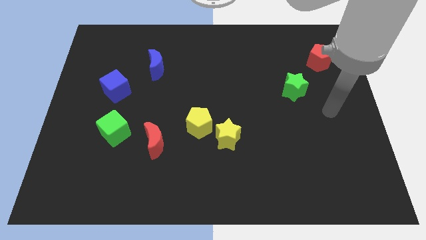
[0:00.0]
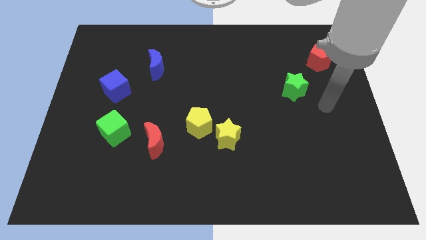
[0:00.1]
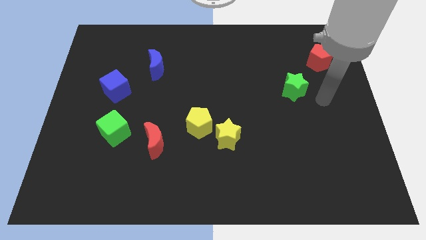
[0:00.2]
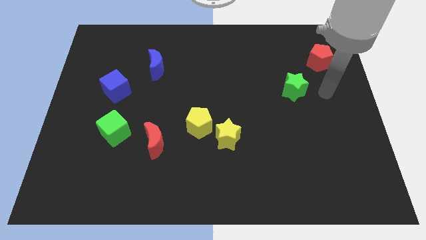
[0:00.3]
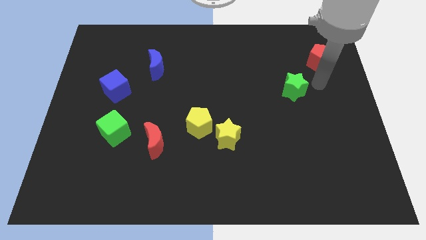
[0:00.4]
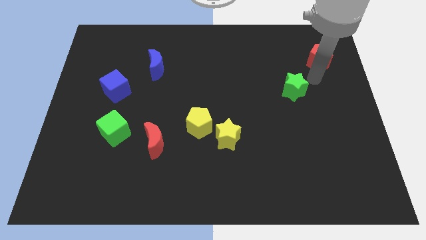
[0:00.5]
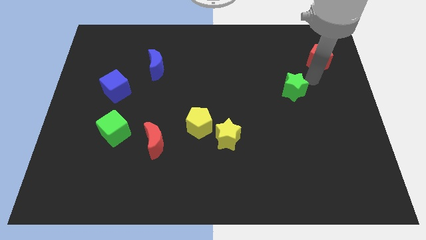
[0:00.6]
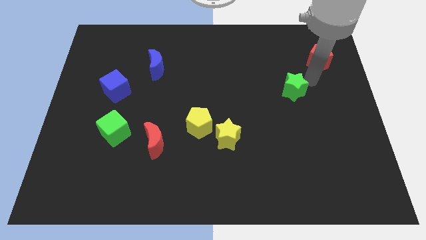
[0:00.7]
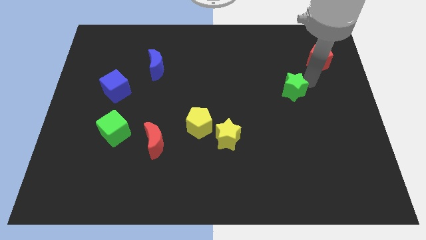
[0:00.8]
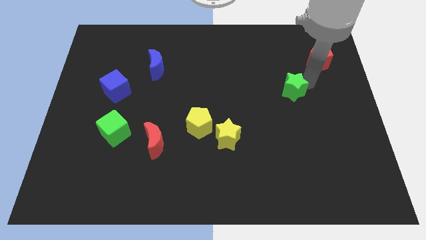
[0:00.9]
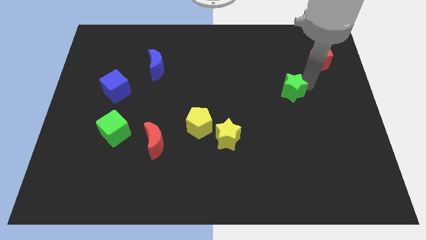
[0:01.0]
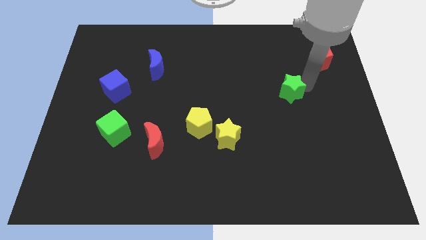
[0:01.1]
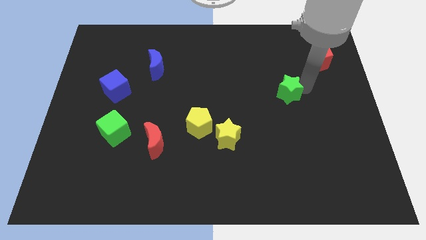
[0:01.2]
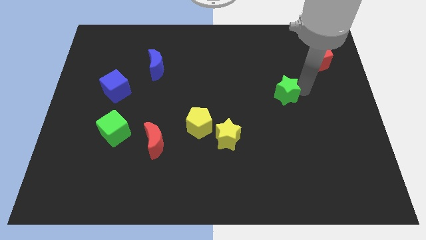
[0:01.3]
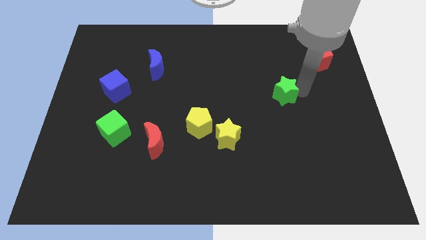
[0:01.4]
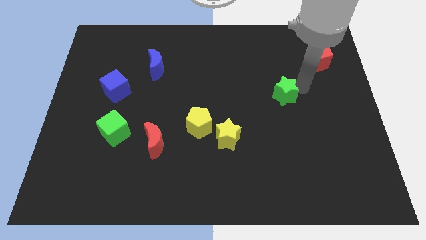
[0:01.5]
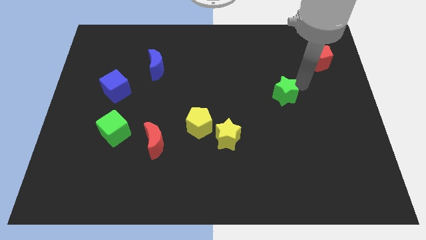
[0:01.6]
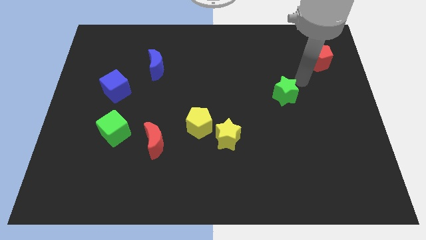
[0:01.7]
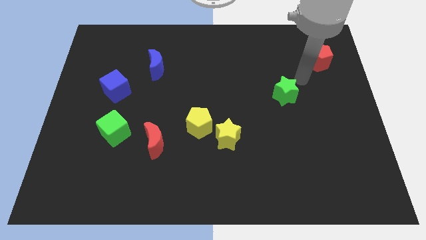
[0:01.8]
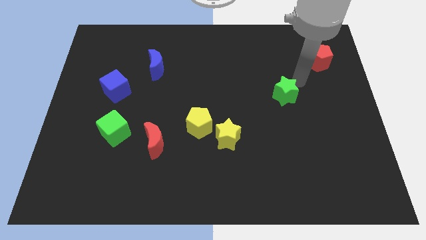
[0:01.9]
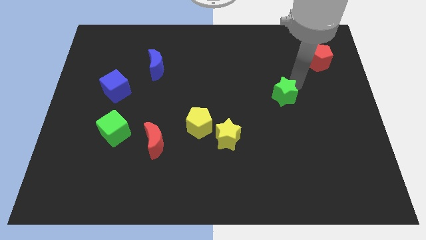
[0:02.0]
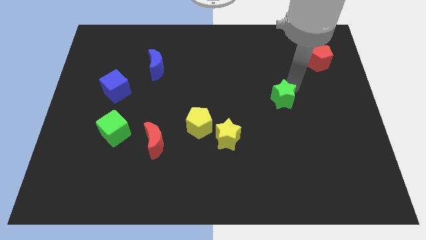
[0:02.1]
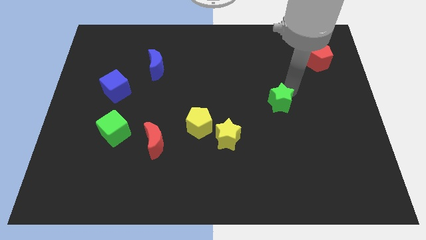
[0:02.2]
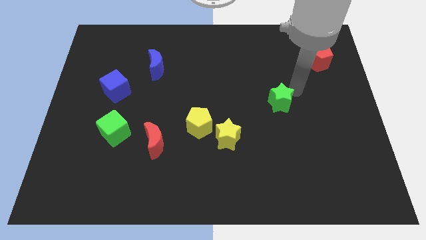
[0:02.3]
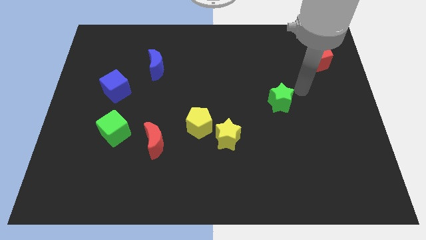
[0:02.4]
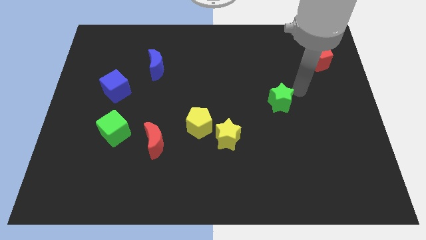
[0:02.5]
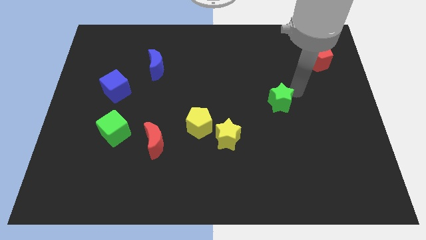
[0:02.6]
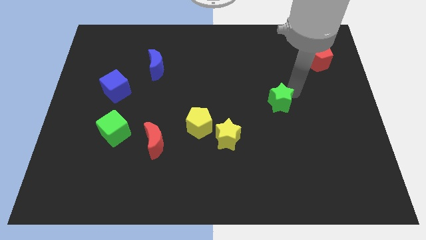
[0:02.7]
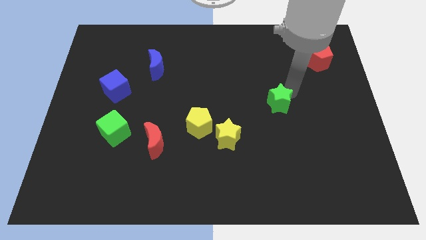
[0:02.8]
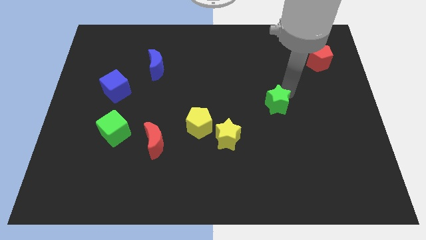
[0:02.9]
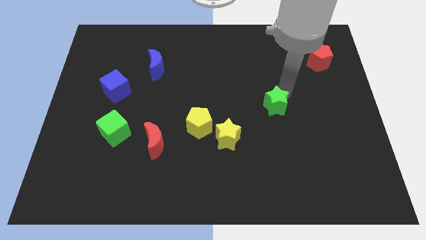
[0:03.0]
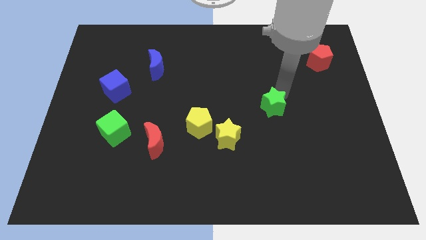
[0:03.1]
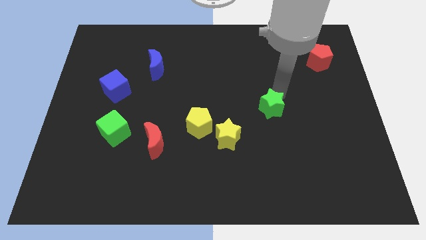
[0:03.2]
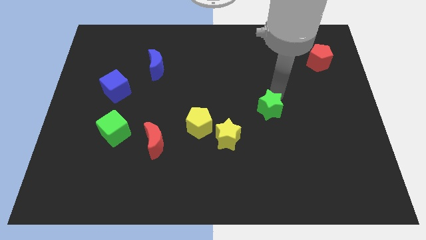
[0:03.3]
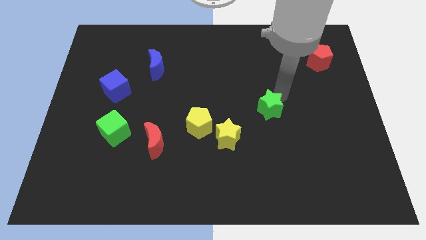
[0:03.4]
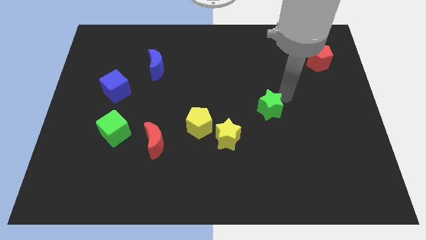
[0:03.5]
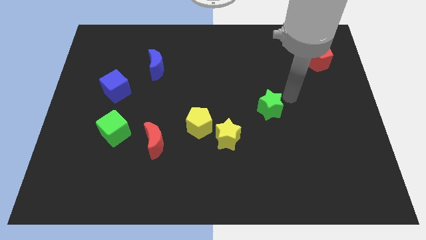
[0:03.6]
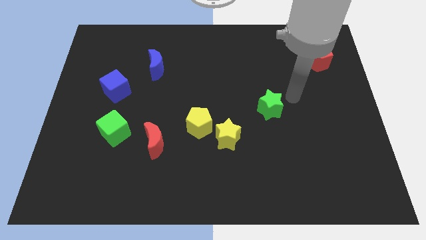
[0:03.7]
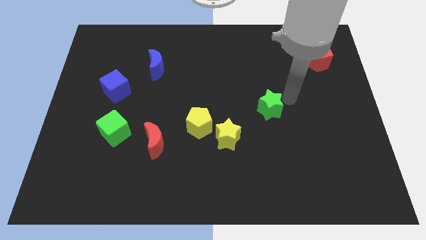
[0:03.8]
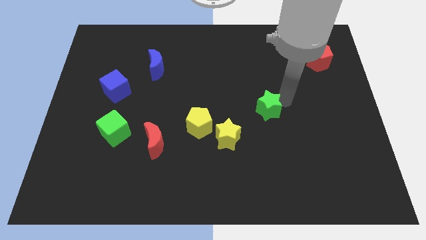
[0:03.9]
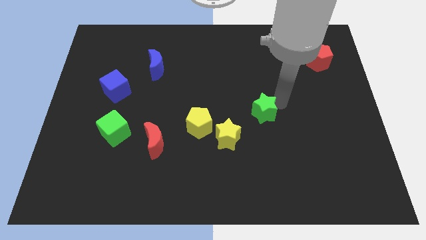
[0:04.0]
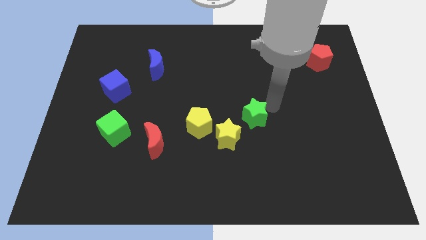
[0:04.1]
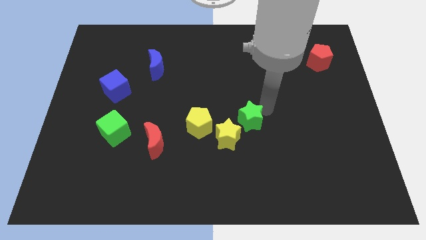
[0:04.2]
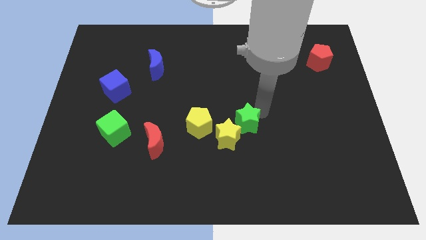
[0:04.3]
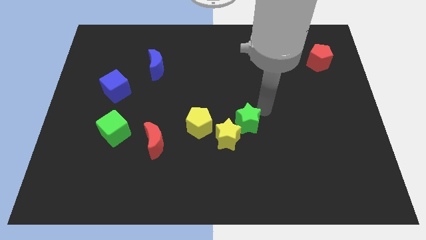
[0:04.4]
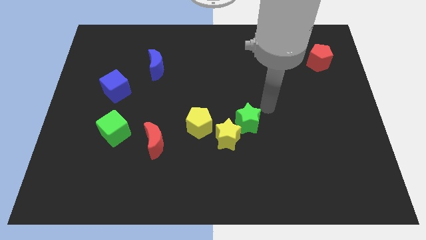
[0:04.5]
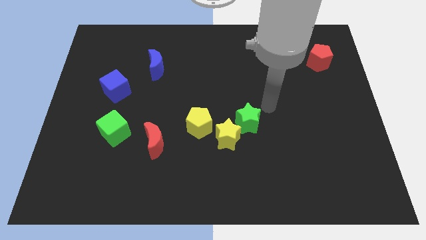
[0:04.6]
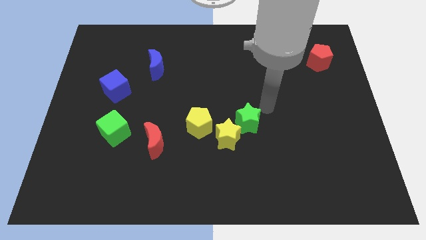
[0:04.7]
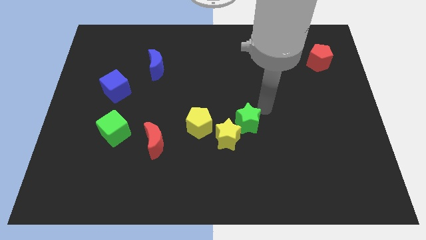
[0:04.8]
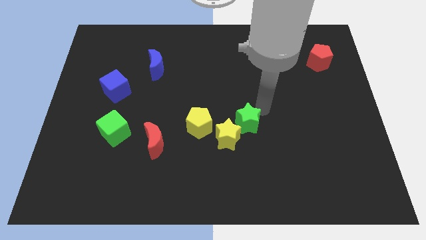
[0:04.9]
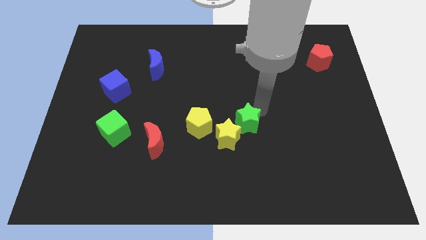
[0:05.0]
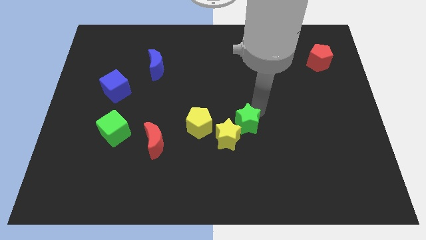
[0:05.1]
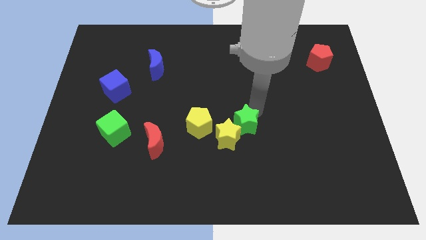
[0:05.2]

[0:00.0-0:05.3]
push the green star to the yellow star

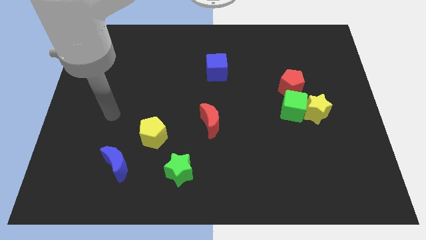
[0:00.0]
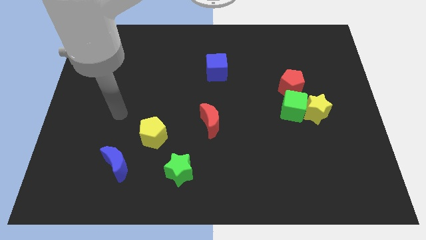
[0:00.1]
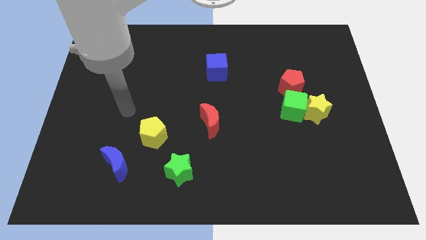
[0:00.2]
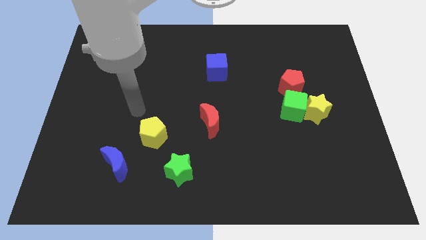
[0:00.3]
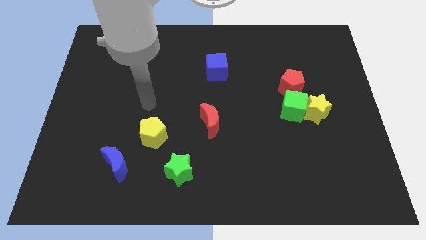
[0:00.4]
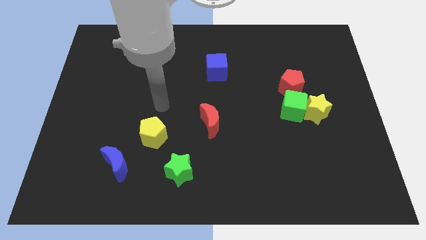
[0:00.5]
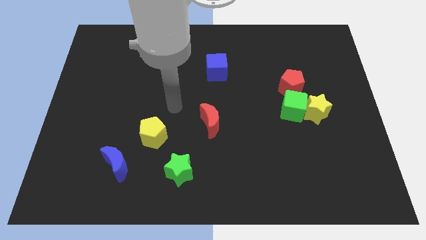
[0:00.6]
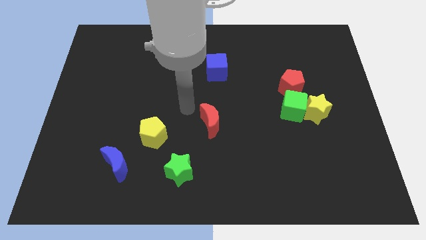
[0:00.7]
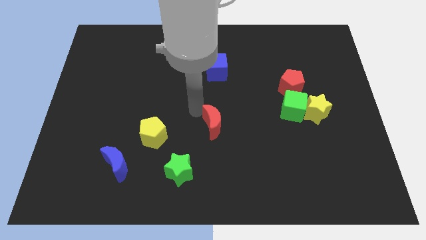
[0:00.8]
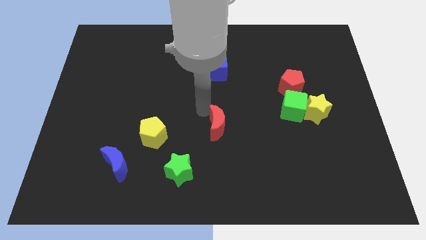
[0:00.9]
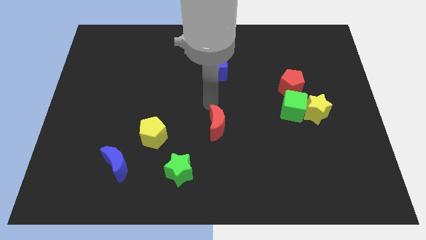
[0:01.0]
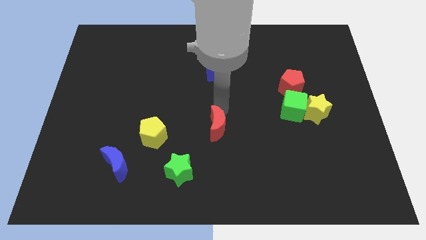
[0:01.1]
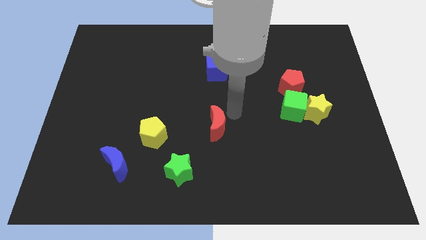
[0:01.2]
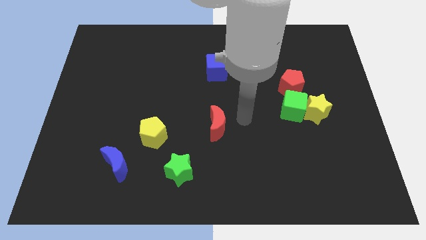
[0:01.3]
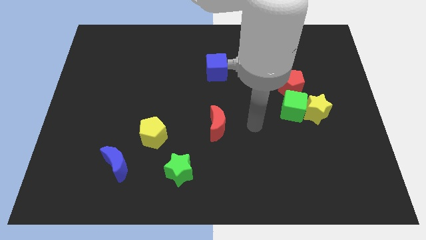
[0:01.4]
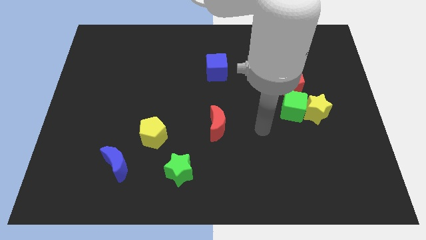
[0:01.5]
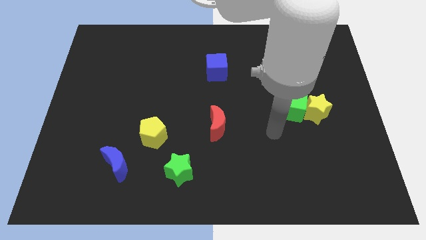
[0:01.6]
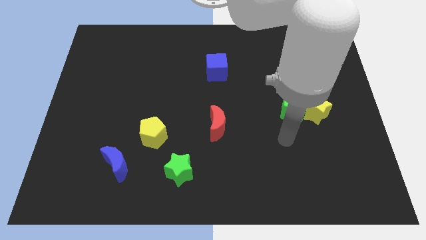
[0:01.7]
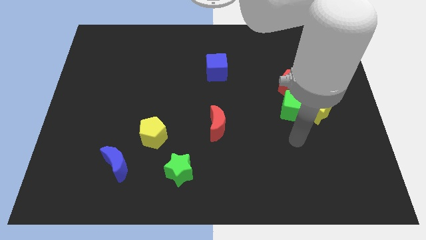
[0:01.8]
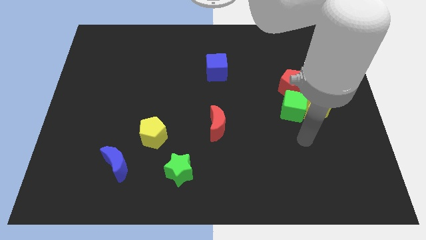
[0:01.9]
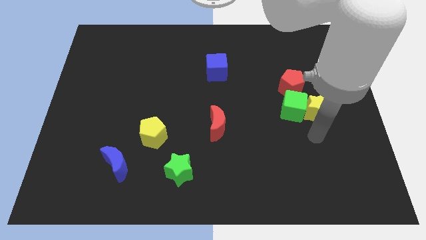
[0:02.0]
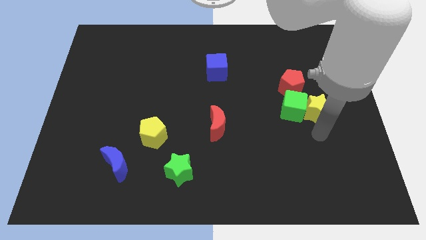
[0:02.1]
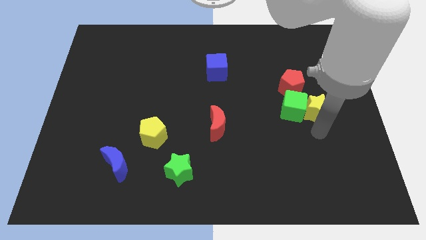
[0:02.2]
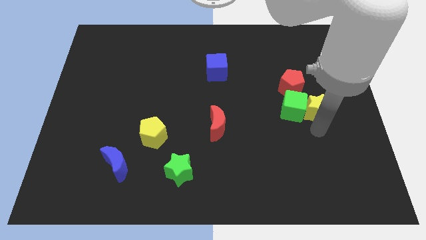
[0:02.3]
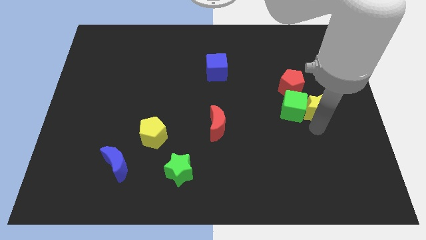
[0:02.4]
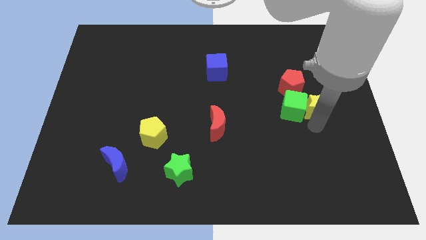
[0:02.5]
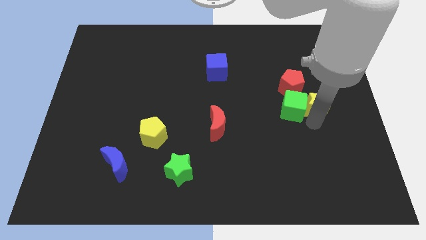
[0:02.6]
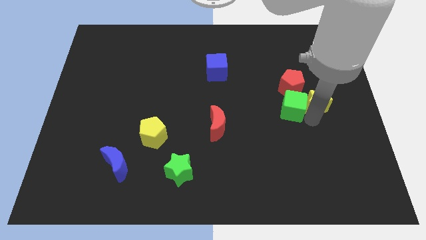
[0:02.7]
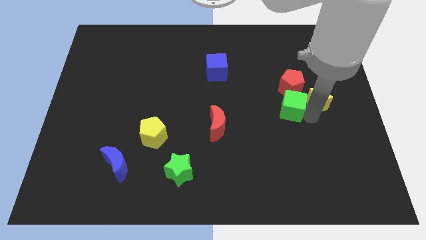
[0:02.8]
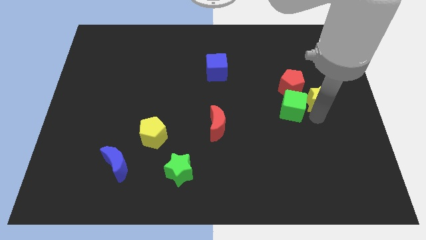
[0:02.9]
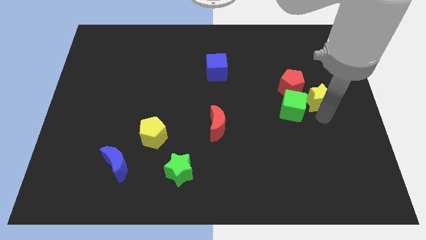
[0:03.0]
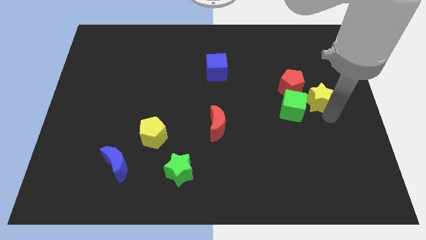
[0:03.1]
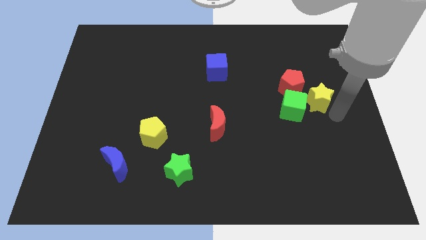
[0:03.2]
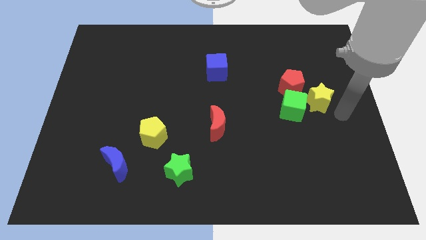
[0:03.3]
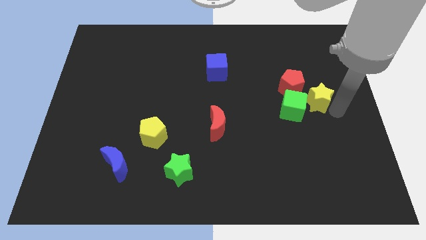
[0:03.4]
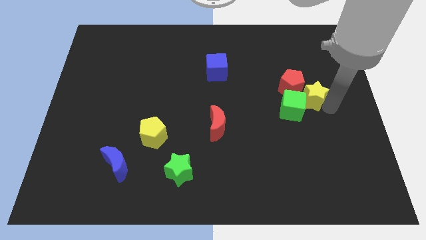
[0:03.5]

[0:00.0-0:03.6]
move the yellow star towards the red pentagon
